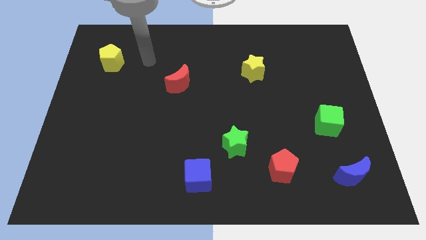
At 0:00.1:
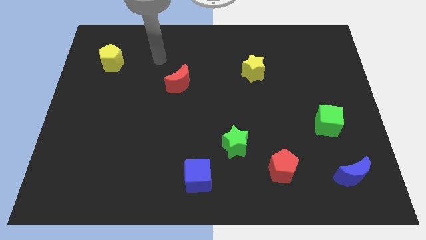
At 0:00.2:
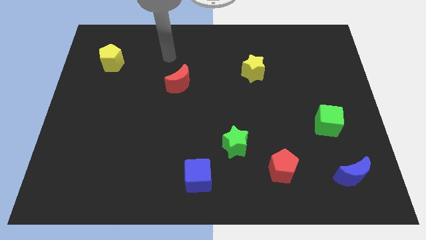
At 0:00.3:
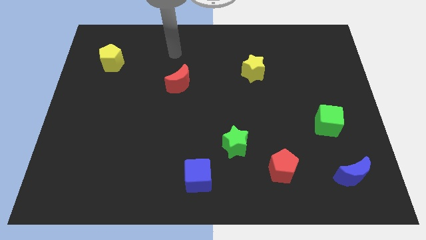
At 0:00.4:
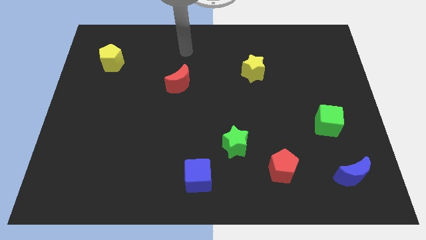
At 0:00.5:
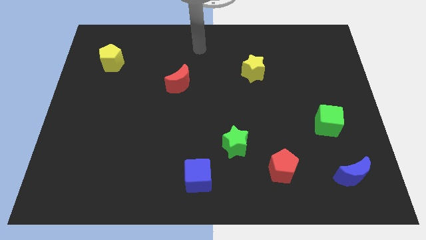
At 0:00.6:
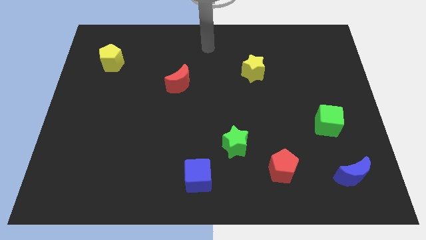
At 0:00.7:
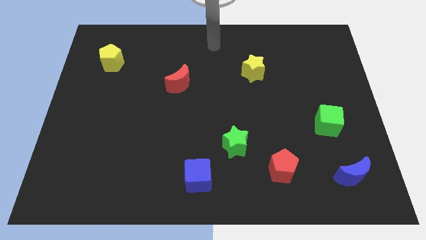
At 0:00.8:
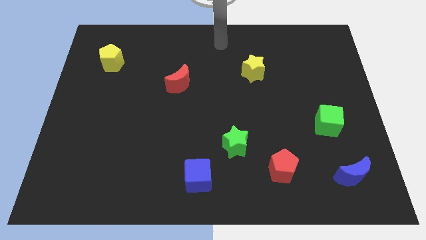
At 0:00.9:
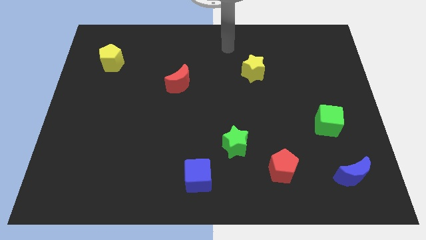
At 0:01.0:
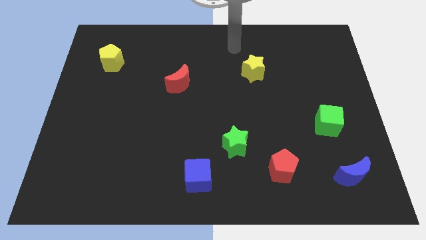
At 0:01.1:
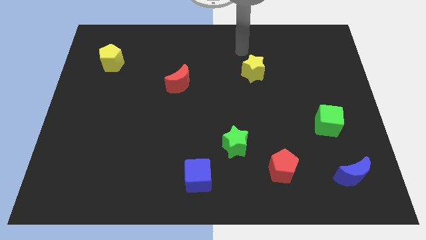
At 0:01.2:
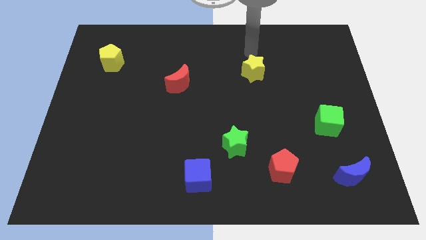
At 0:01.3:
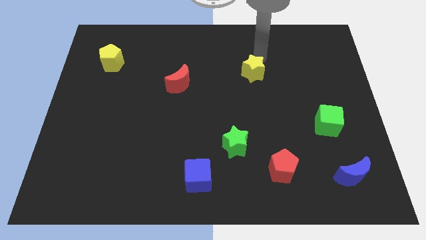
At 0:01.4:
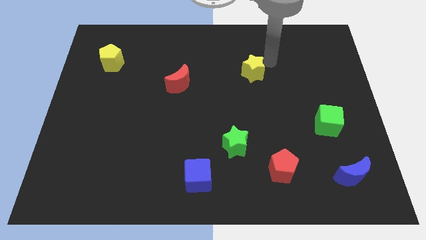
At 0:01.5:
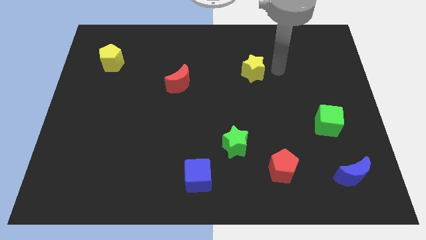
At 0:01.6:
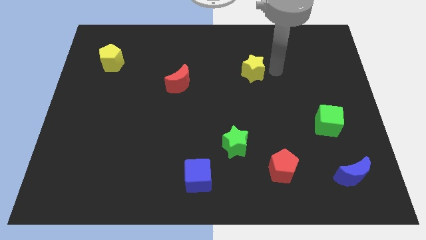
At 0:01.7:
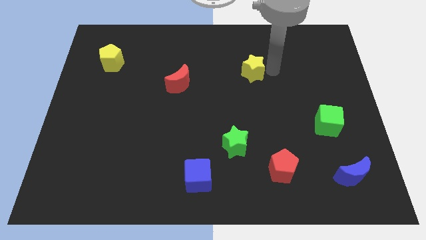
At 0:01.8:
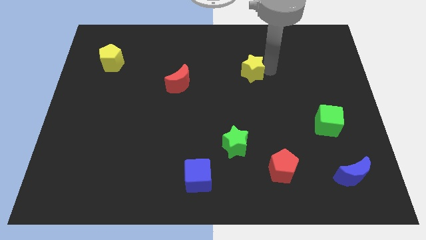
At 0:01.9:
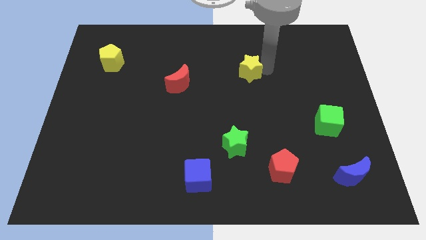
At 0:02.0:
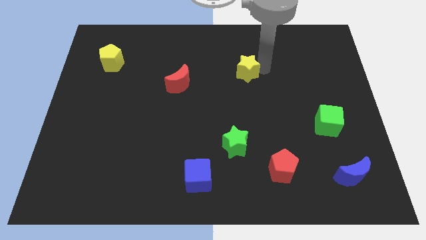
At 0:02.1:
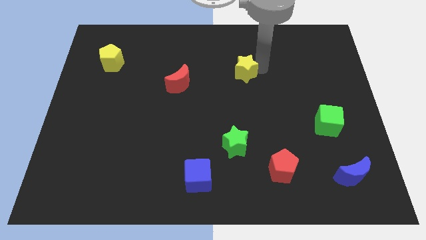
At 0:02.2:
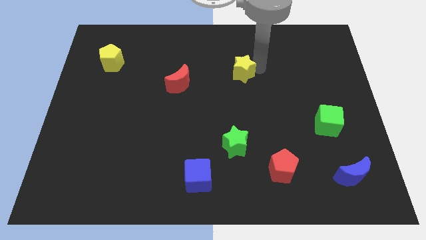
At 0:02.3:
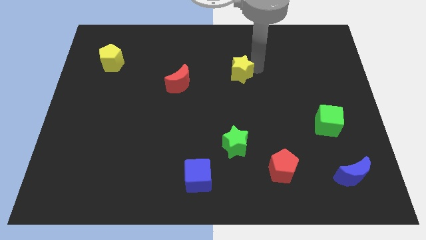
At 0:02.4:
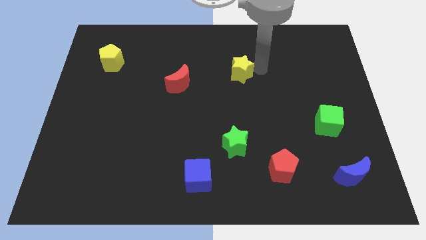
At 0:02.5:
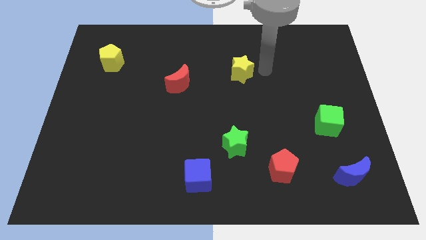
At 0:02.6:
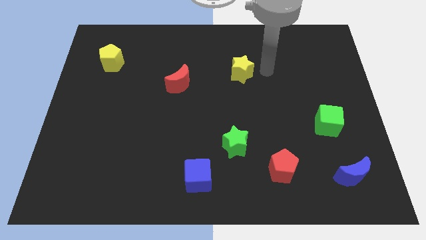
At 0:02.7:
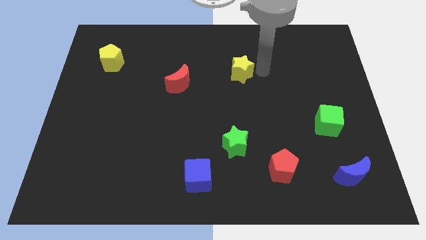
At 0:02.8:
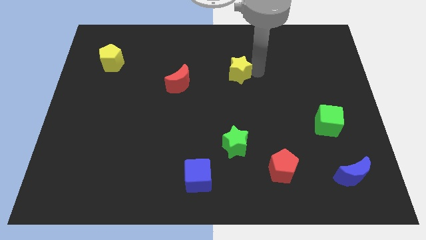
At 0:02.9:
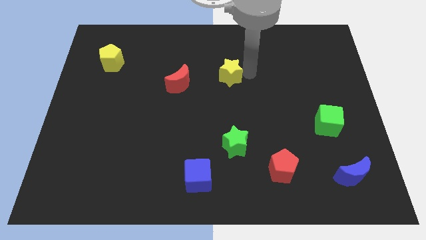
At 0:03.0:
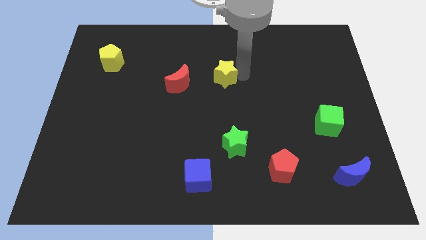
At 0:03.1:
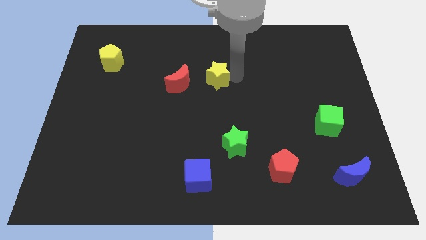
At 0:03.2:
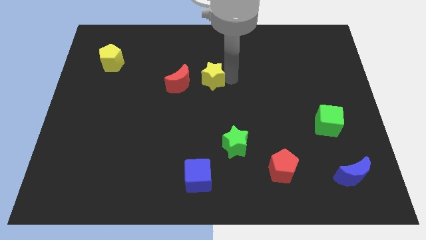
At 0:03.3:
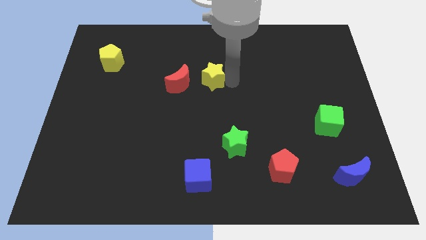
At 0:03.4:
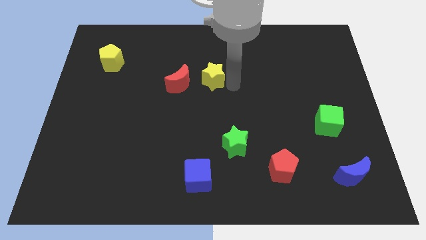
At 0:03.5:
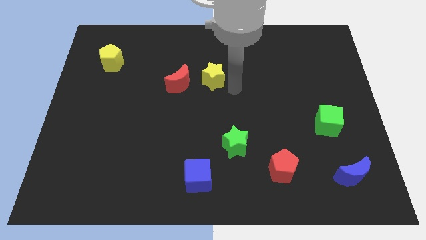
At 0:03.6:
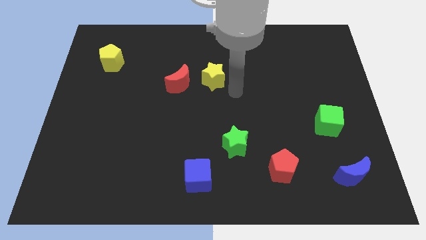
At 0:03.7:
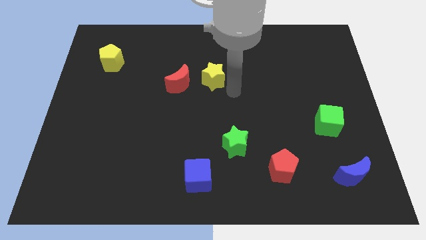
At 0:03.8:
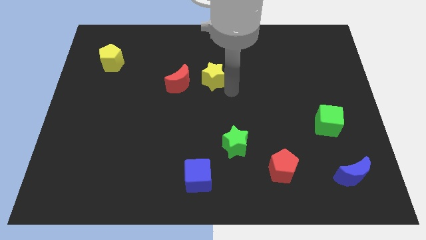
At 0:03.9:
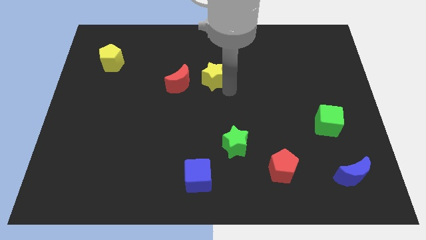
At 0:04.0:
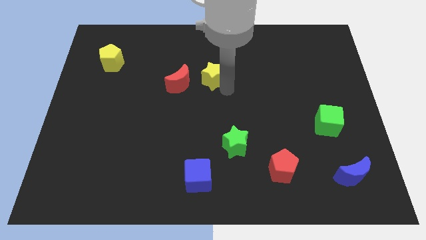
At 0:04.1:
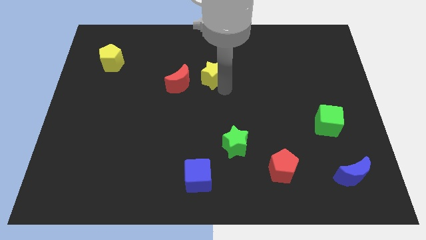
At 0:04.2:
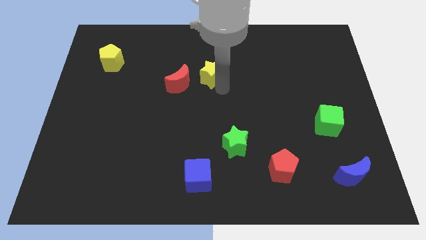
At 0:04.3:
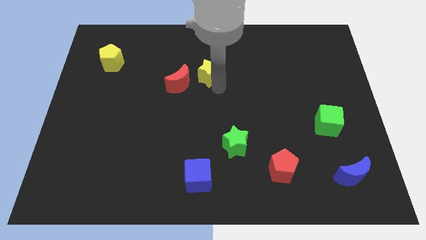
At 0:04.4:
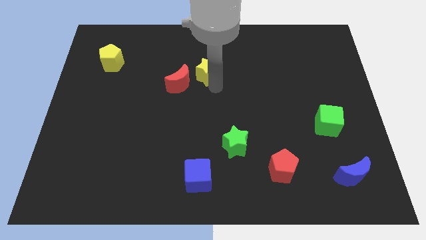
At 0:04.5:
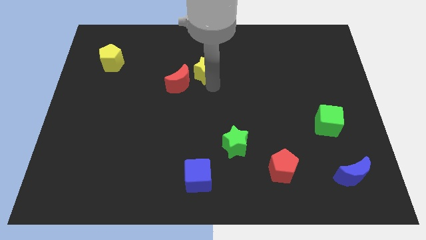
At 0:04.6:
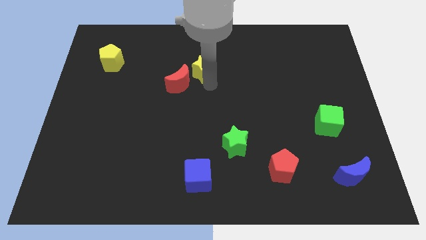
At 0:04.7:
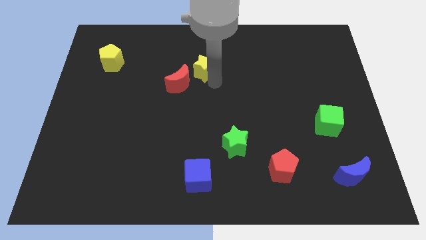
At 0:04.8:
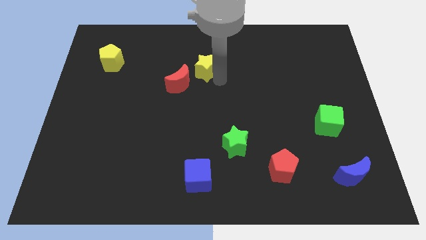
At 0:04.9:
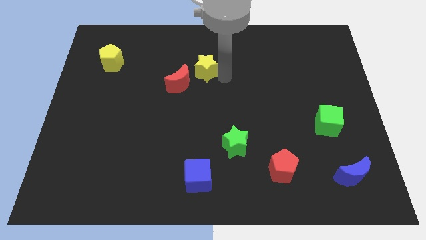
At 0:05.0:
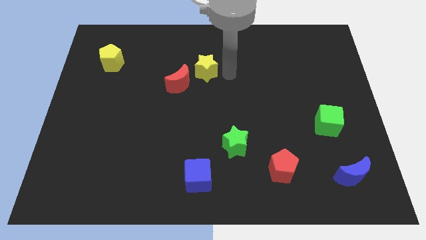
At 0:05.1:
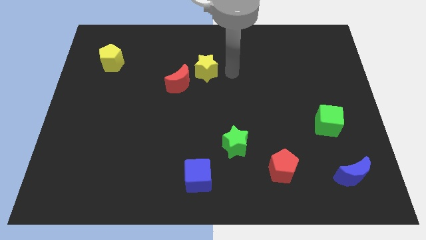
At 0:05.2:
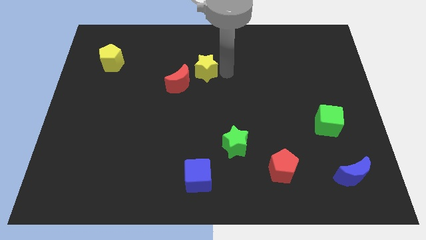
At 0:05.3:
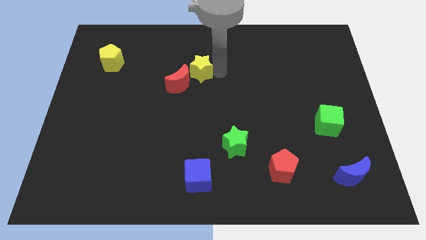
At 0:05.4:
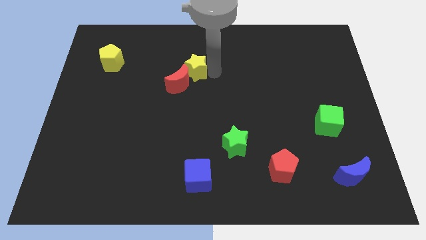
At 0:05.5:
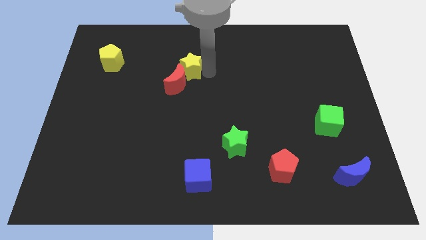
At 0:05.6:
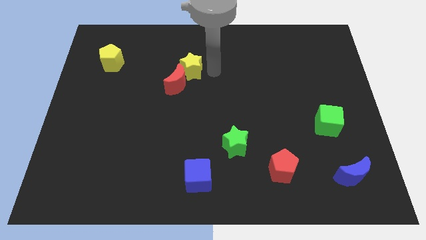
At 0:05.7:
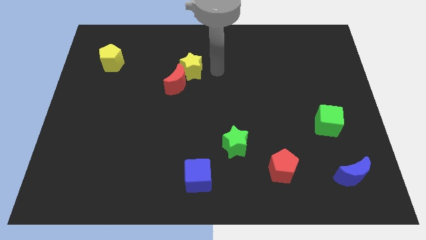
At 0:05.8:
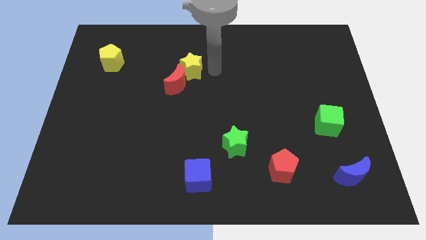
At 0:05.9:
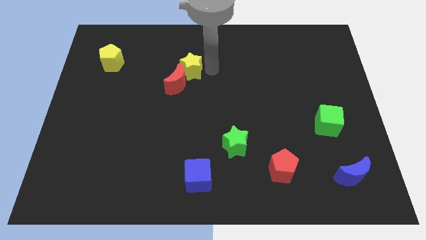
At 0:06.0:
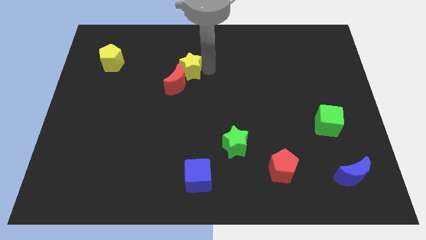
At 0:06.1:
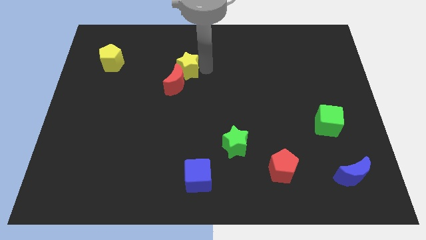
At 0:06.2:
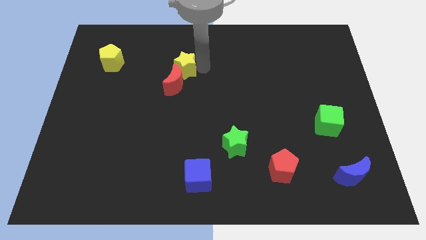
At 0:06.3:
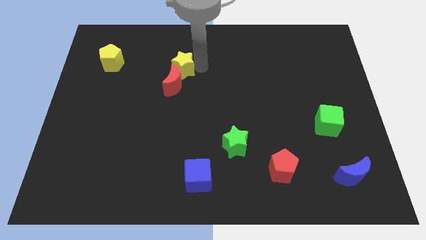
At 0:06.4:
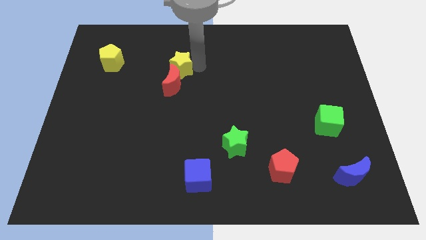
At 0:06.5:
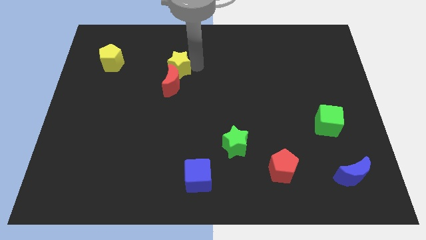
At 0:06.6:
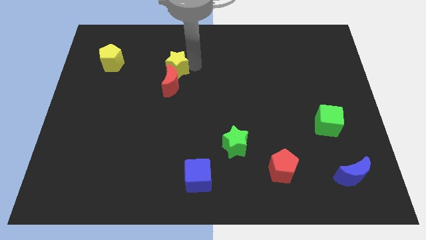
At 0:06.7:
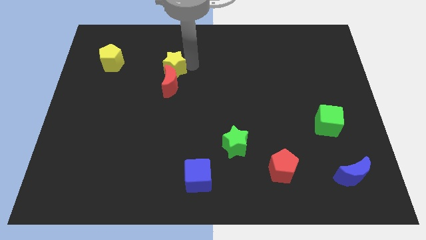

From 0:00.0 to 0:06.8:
push the yellow star to the left

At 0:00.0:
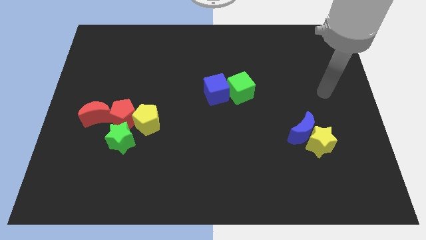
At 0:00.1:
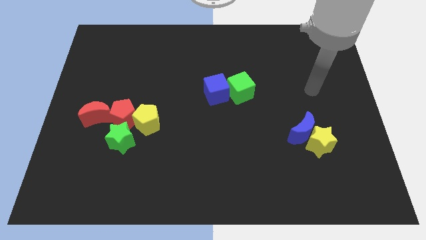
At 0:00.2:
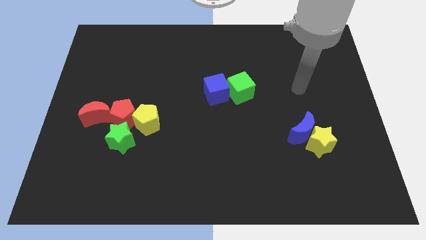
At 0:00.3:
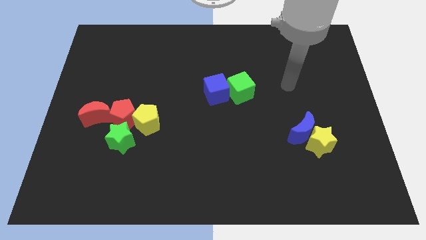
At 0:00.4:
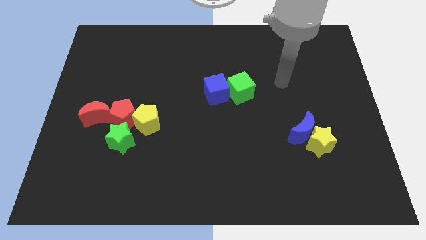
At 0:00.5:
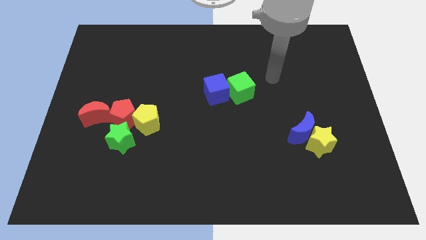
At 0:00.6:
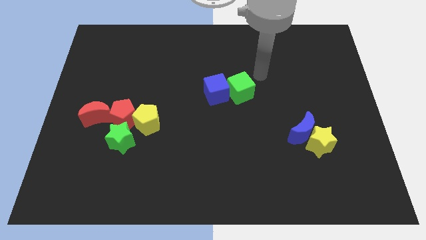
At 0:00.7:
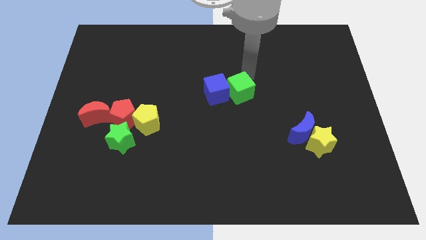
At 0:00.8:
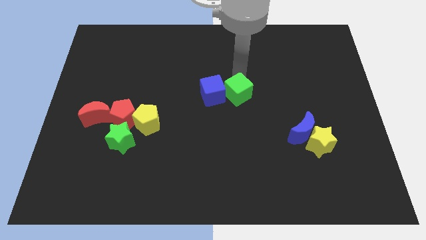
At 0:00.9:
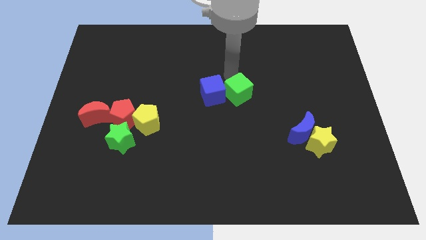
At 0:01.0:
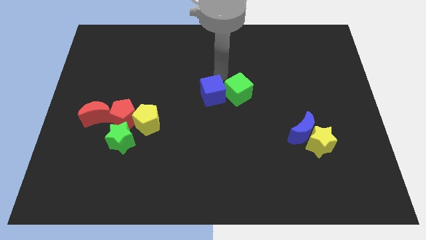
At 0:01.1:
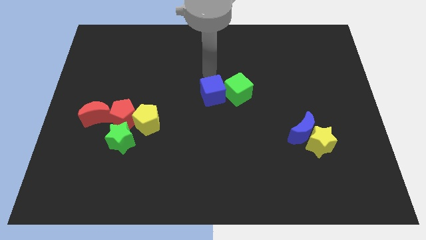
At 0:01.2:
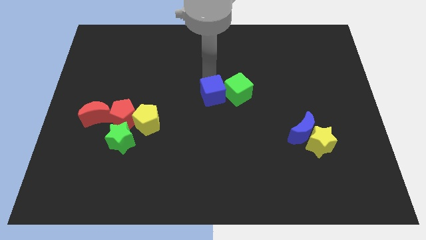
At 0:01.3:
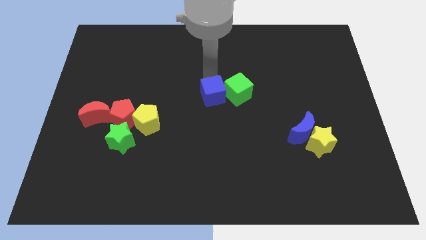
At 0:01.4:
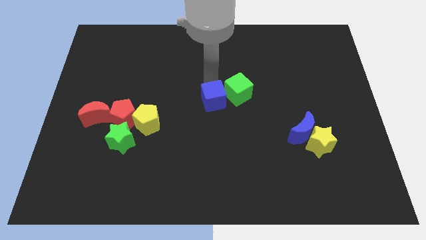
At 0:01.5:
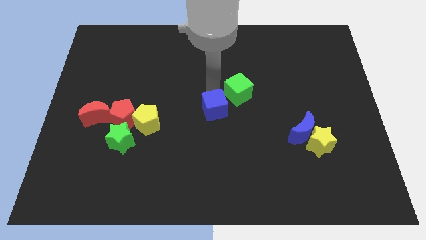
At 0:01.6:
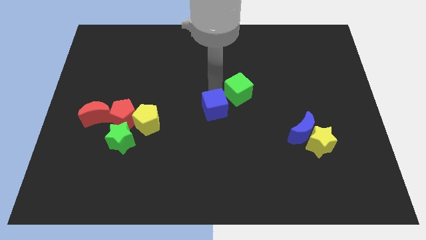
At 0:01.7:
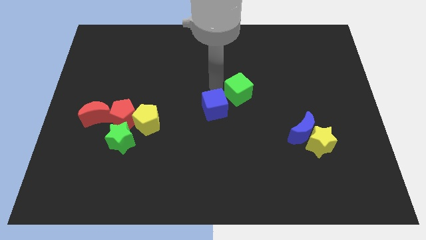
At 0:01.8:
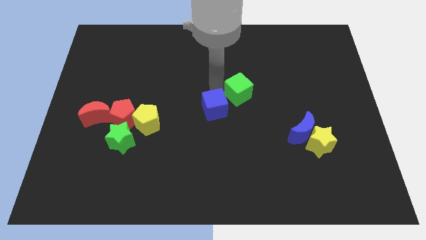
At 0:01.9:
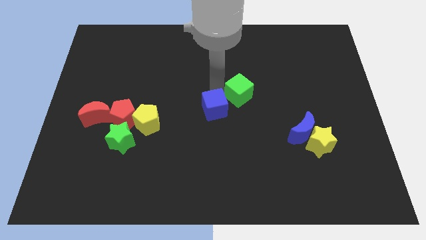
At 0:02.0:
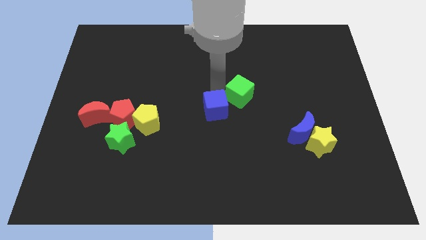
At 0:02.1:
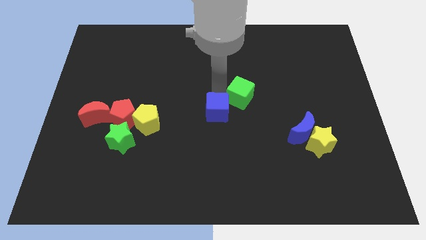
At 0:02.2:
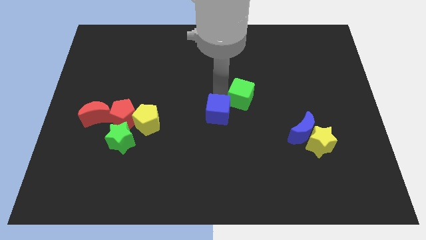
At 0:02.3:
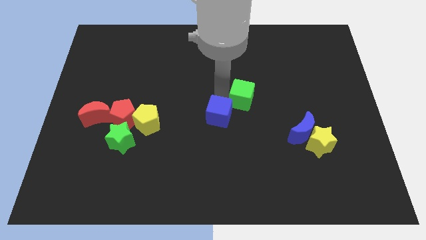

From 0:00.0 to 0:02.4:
move the blue cube downwards slightly
